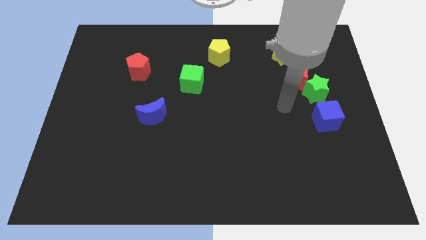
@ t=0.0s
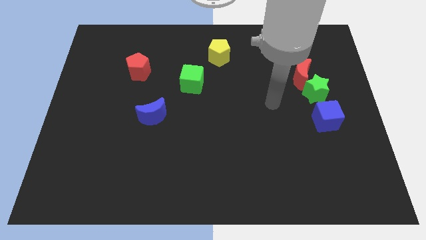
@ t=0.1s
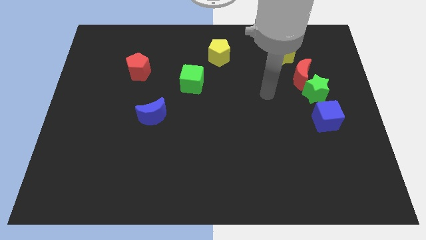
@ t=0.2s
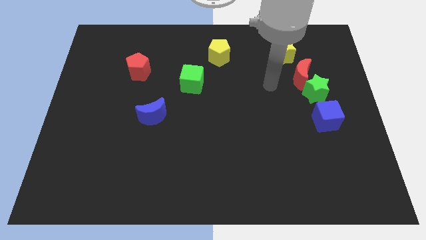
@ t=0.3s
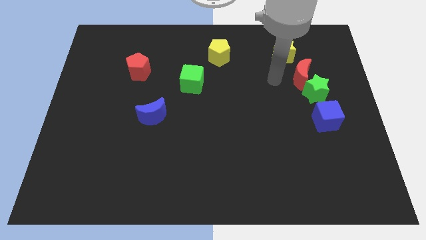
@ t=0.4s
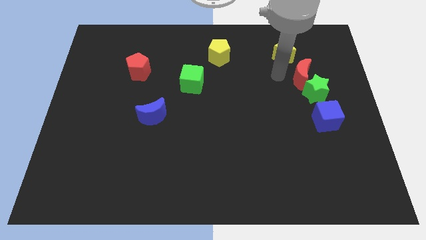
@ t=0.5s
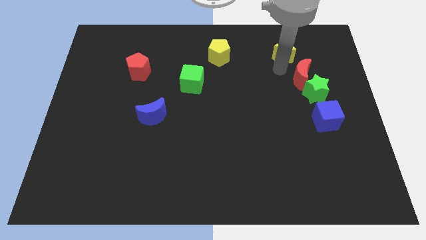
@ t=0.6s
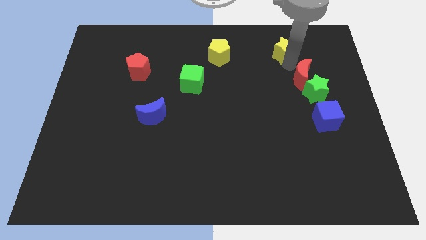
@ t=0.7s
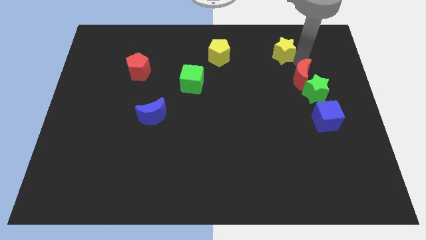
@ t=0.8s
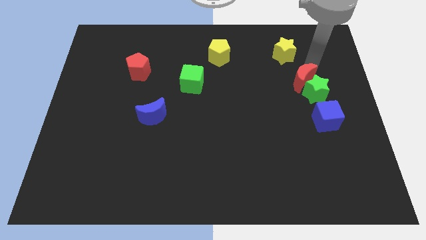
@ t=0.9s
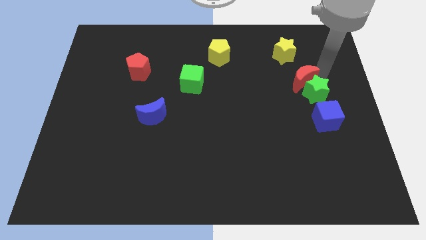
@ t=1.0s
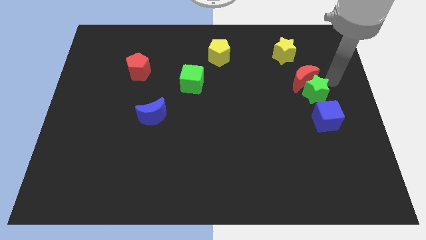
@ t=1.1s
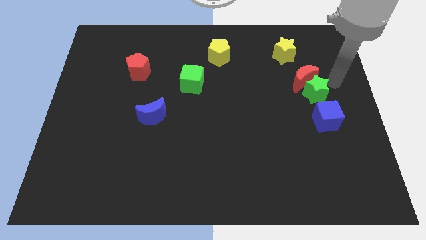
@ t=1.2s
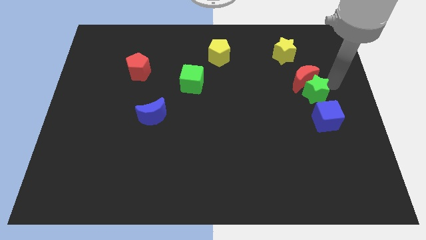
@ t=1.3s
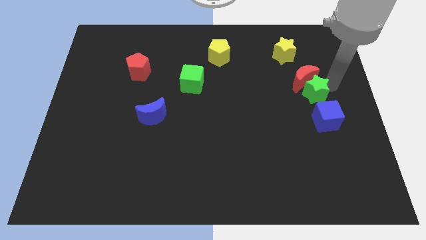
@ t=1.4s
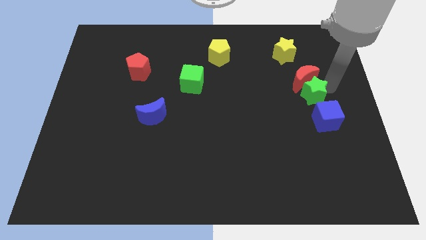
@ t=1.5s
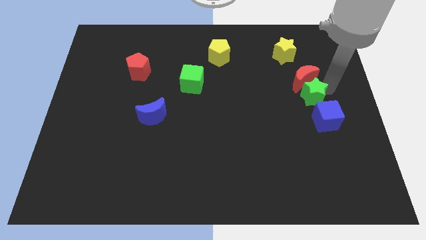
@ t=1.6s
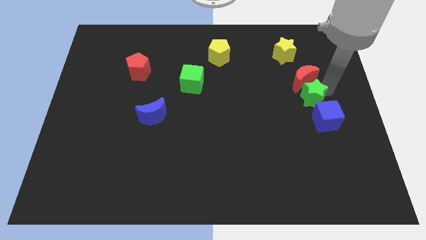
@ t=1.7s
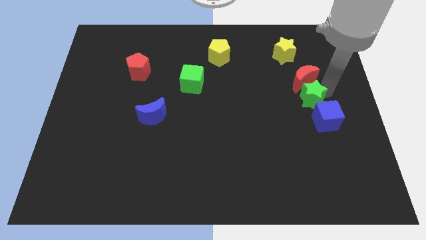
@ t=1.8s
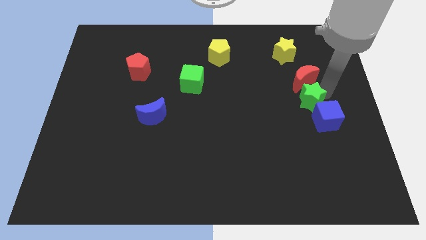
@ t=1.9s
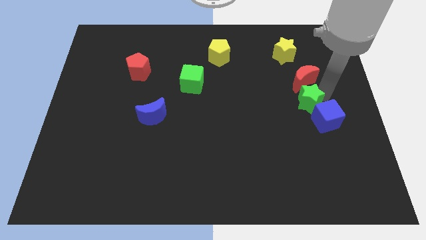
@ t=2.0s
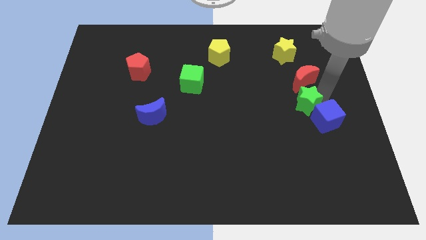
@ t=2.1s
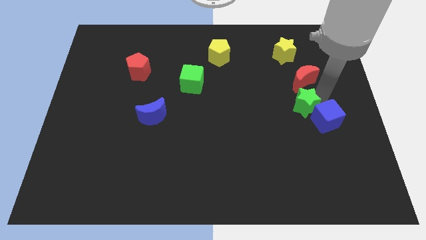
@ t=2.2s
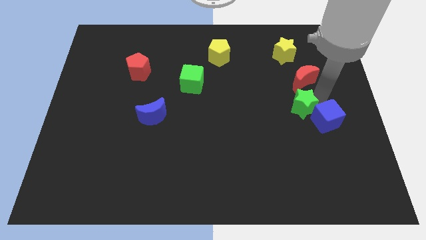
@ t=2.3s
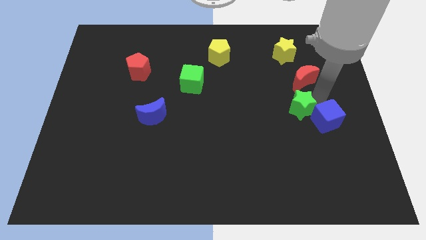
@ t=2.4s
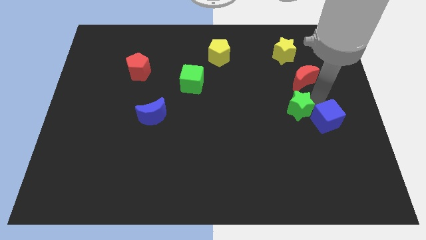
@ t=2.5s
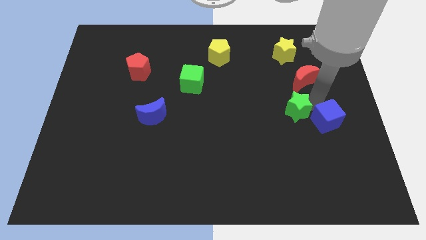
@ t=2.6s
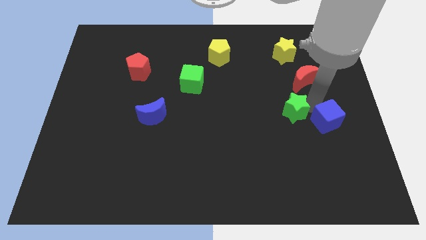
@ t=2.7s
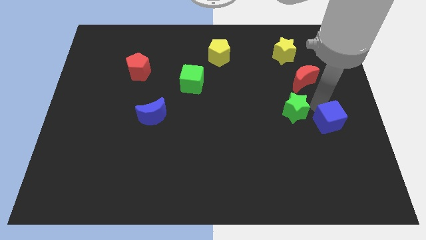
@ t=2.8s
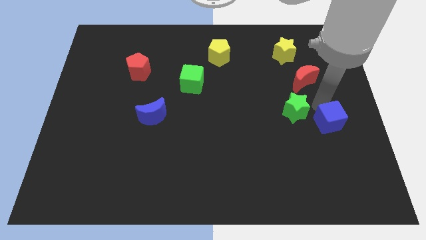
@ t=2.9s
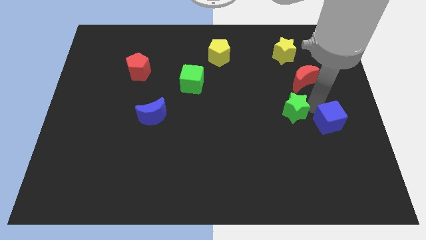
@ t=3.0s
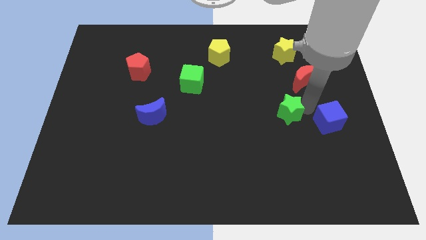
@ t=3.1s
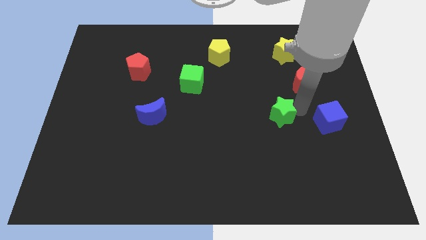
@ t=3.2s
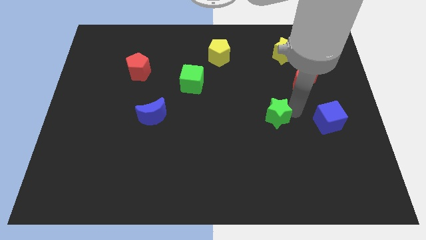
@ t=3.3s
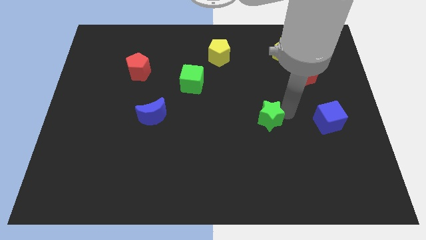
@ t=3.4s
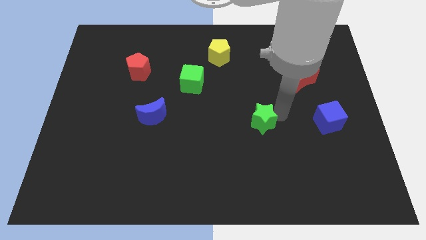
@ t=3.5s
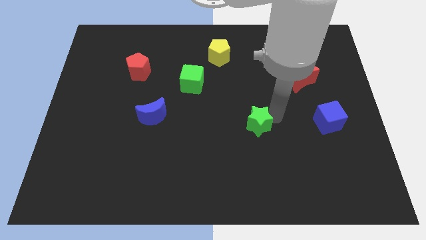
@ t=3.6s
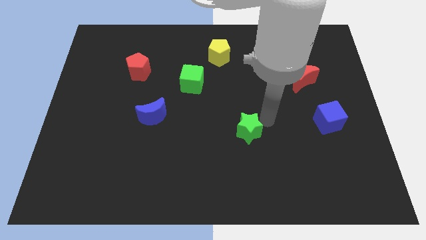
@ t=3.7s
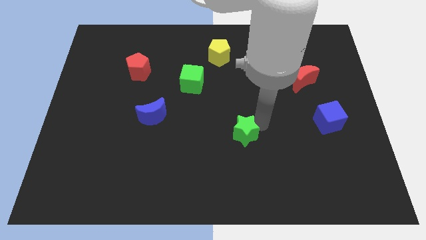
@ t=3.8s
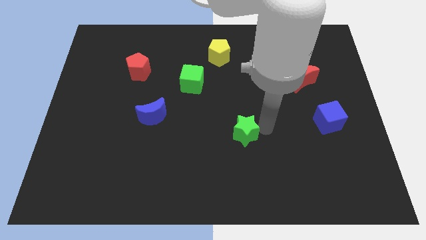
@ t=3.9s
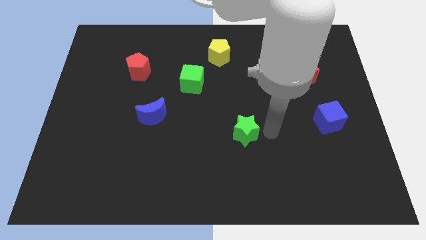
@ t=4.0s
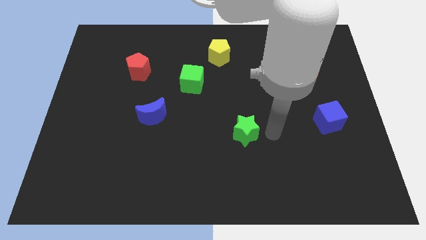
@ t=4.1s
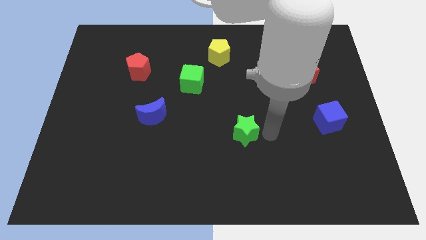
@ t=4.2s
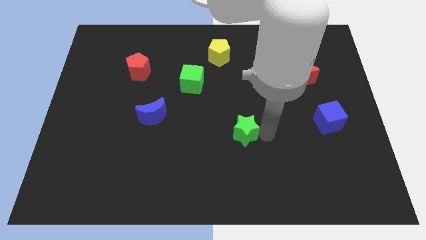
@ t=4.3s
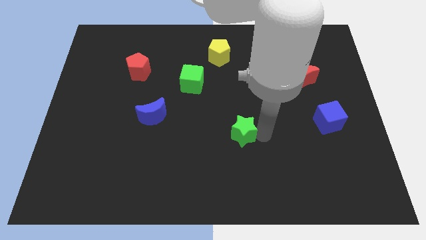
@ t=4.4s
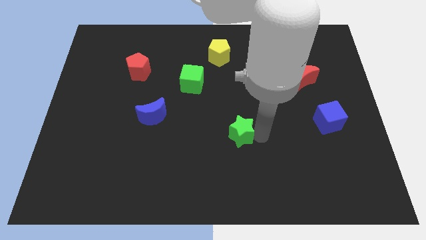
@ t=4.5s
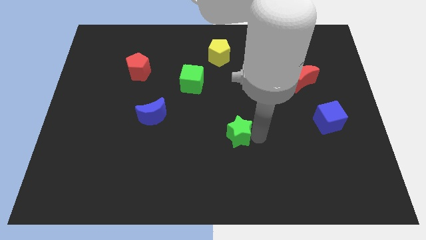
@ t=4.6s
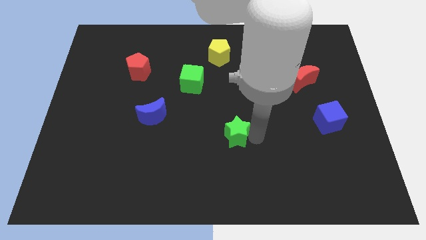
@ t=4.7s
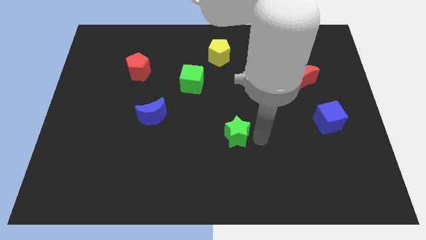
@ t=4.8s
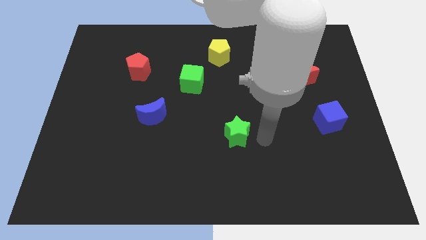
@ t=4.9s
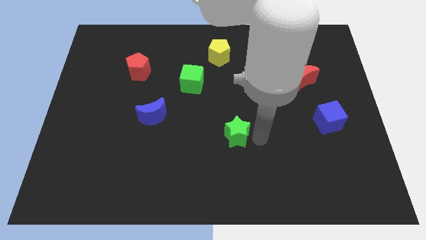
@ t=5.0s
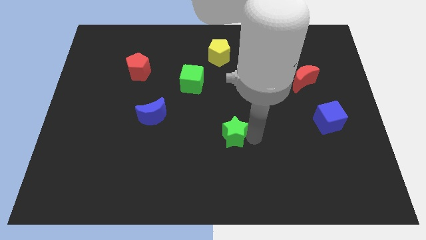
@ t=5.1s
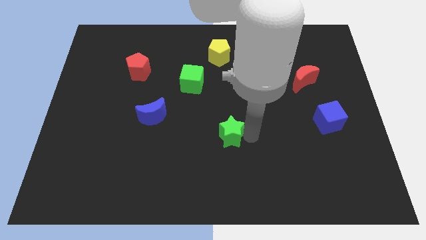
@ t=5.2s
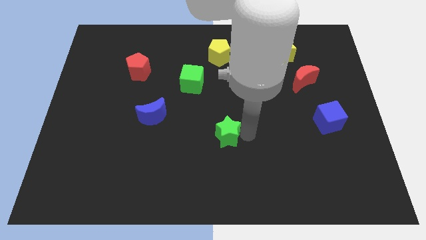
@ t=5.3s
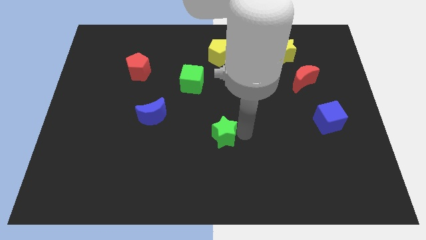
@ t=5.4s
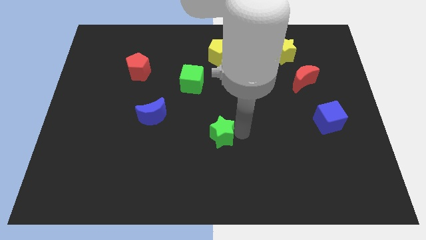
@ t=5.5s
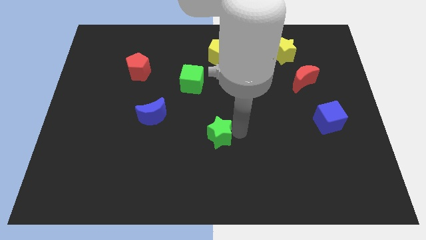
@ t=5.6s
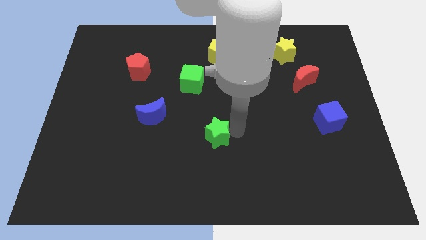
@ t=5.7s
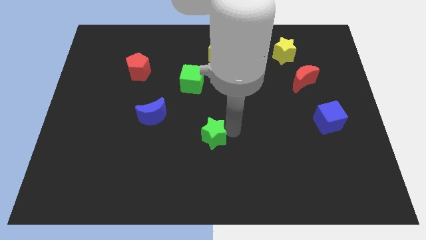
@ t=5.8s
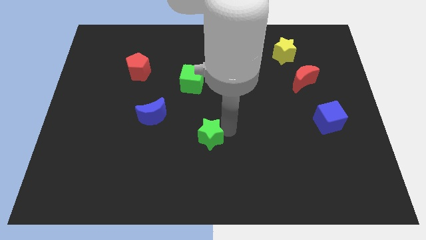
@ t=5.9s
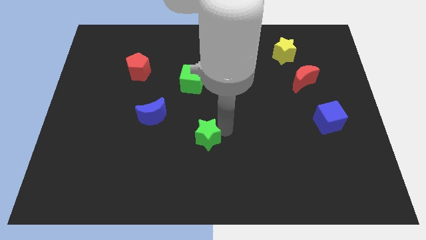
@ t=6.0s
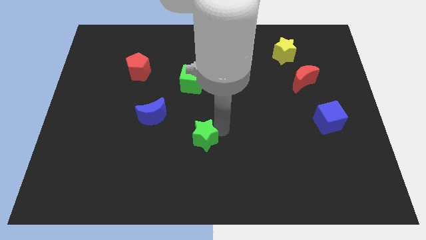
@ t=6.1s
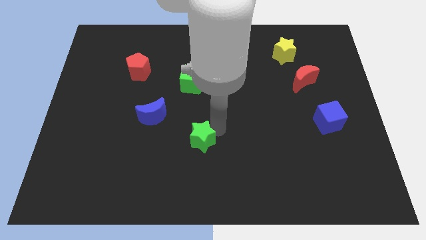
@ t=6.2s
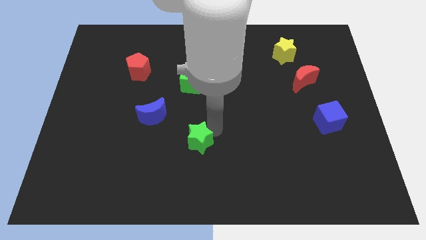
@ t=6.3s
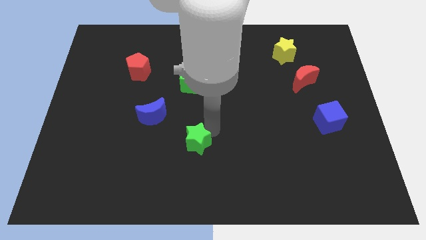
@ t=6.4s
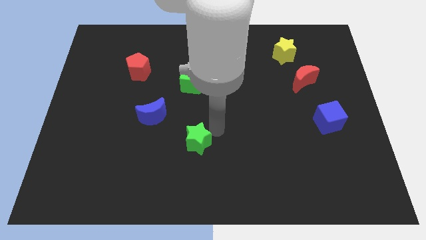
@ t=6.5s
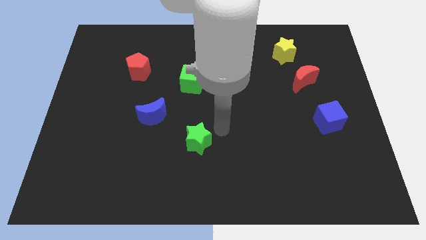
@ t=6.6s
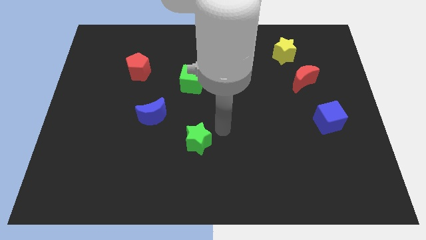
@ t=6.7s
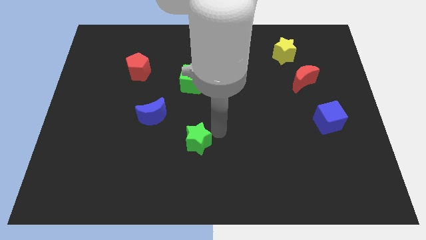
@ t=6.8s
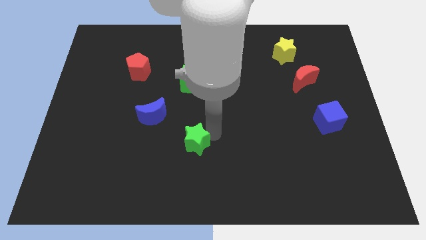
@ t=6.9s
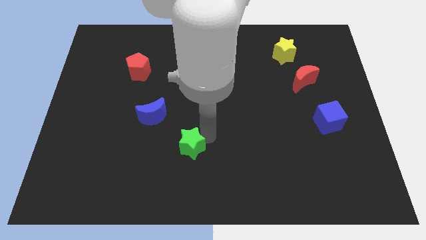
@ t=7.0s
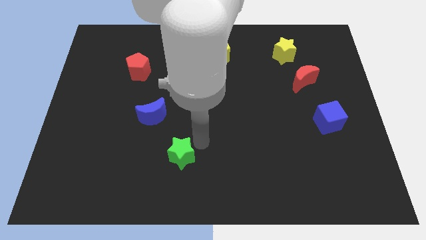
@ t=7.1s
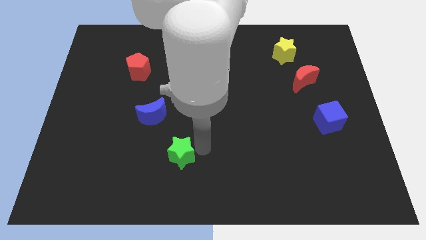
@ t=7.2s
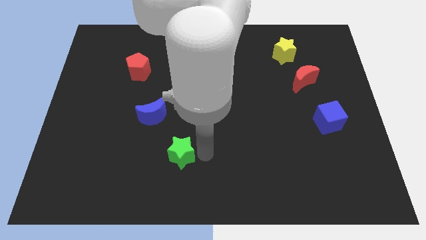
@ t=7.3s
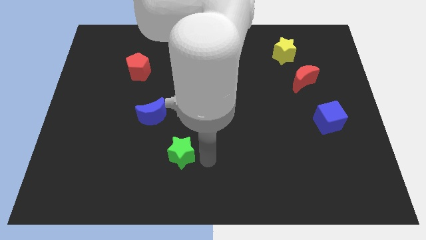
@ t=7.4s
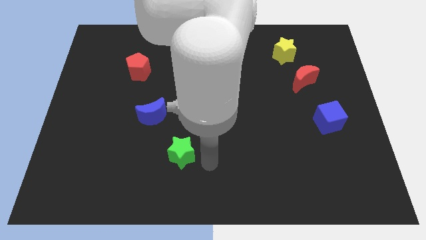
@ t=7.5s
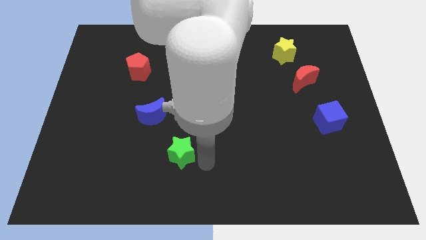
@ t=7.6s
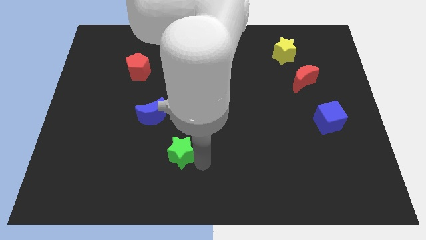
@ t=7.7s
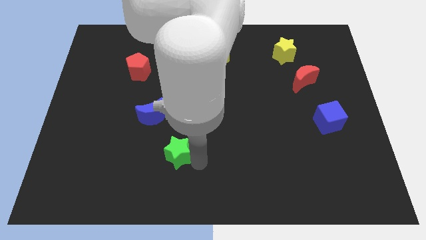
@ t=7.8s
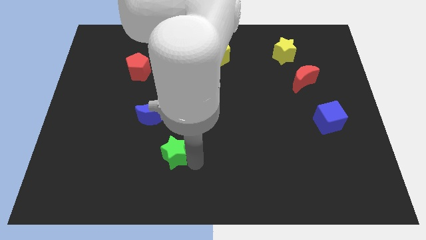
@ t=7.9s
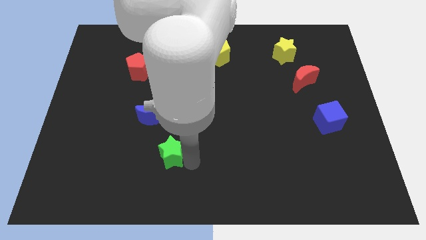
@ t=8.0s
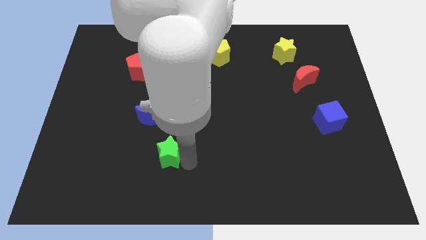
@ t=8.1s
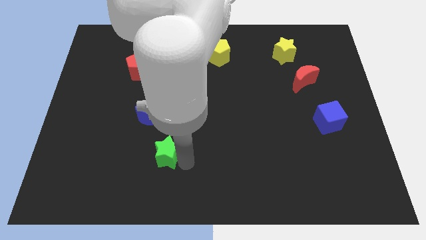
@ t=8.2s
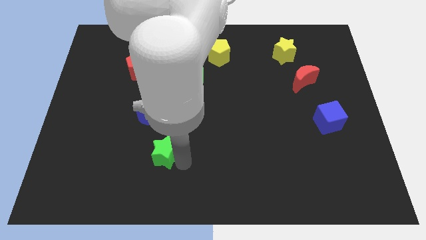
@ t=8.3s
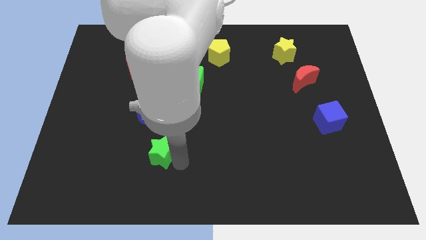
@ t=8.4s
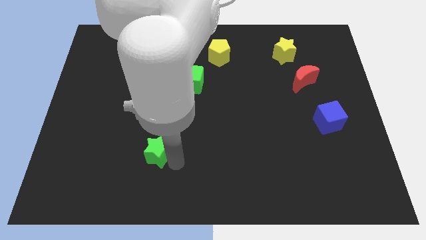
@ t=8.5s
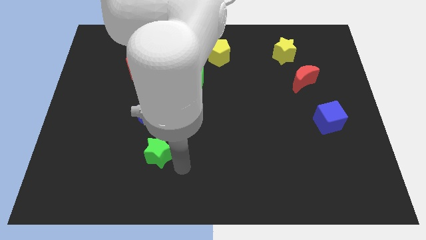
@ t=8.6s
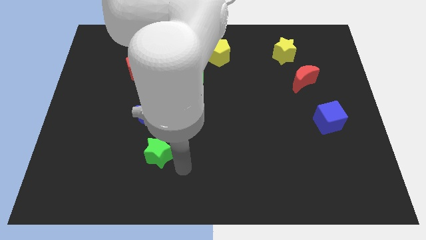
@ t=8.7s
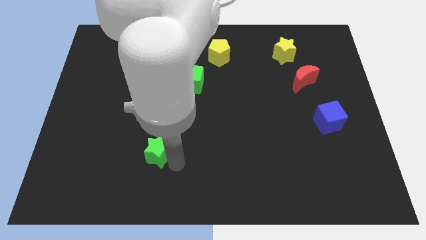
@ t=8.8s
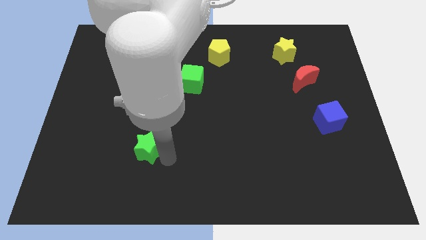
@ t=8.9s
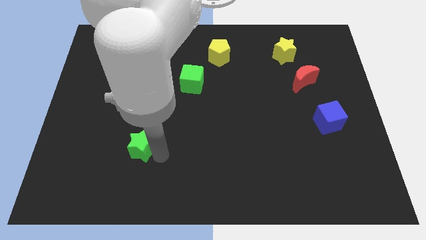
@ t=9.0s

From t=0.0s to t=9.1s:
push the green star diagonally down and to the left of the blue moon
